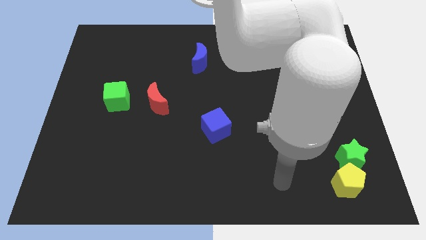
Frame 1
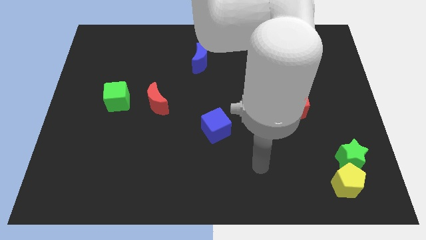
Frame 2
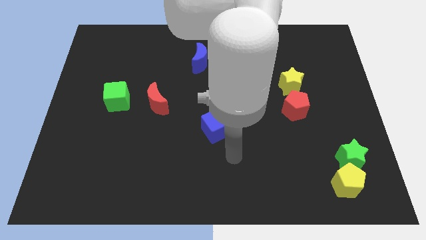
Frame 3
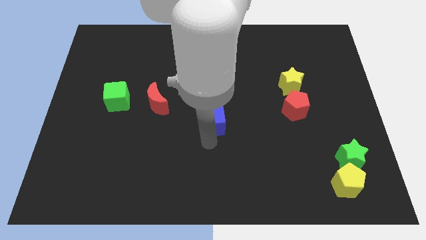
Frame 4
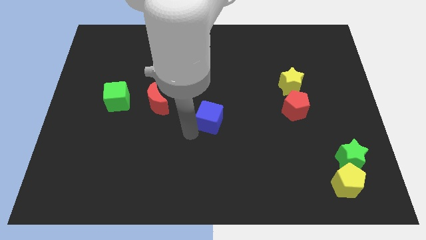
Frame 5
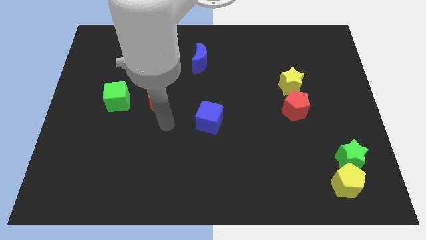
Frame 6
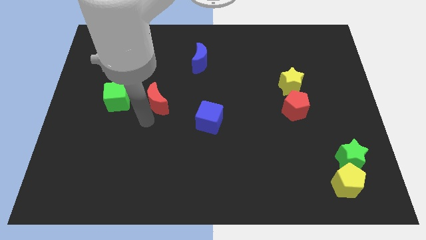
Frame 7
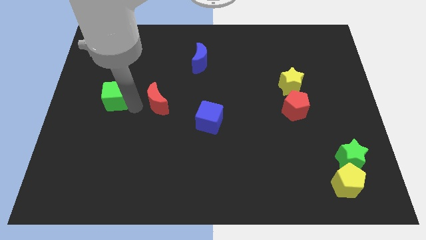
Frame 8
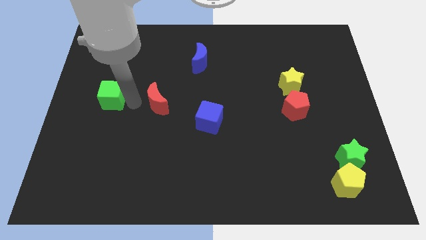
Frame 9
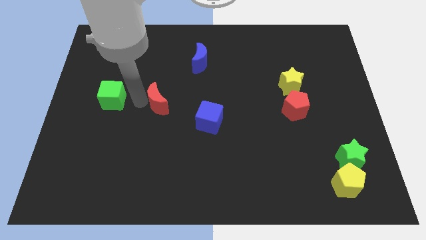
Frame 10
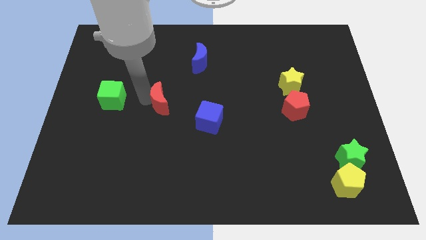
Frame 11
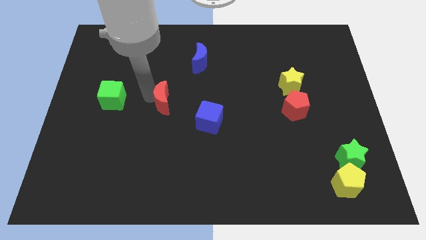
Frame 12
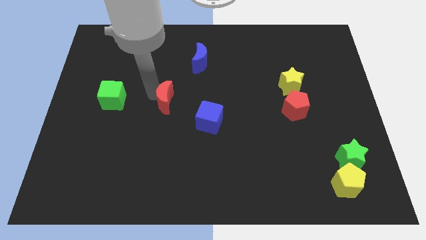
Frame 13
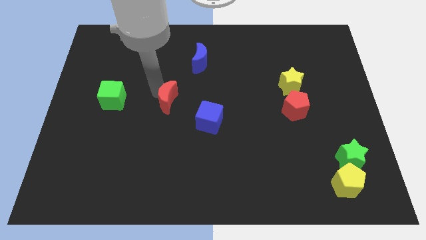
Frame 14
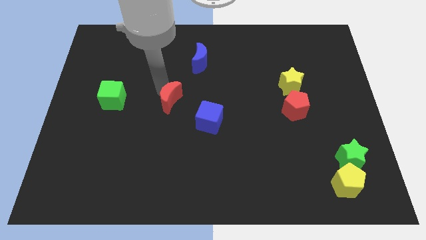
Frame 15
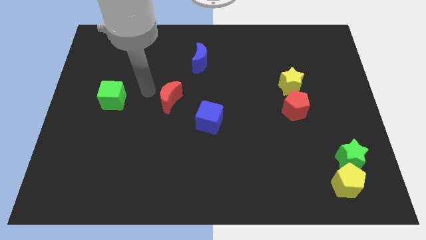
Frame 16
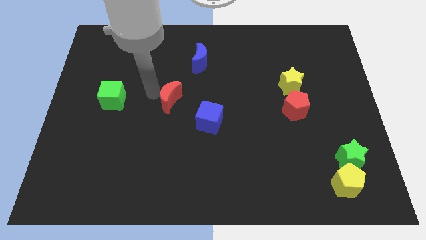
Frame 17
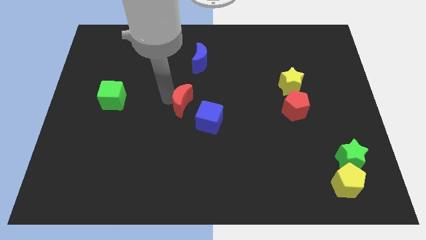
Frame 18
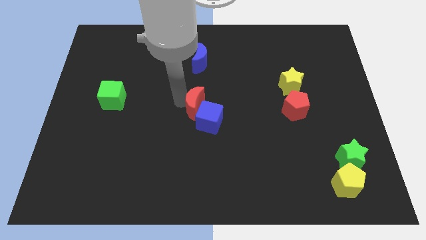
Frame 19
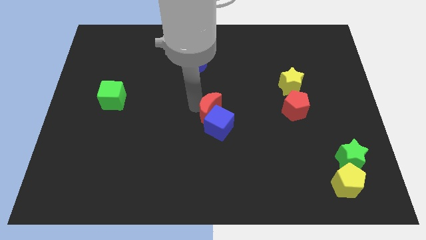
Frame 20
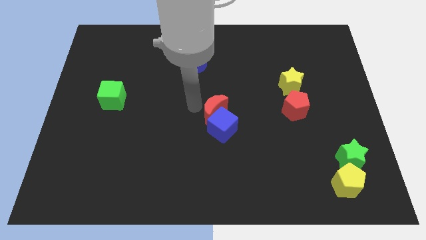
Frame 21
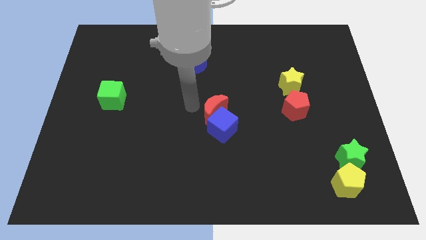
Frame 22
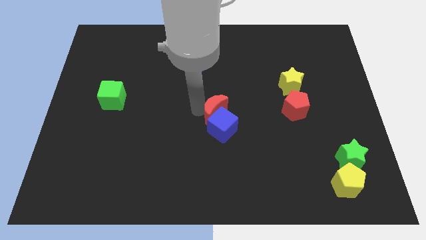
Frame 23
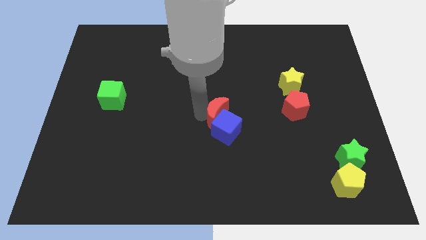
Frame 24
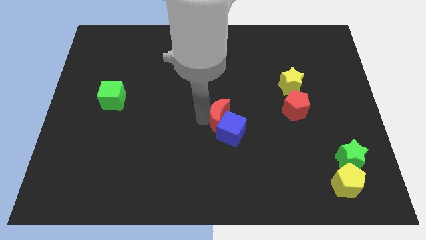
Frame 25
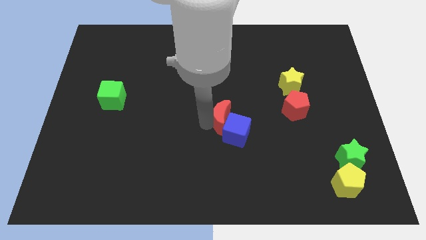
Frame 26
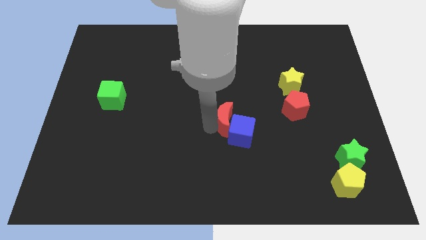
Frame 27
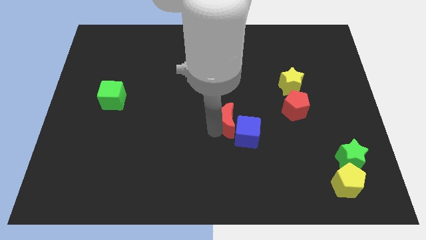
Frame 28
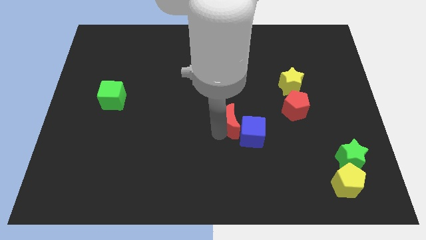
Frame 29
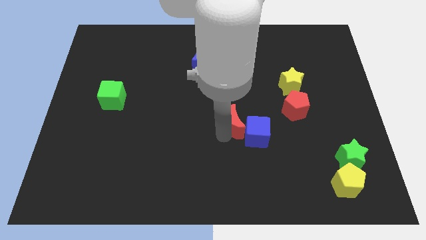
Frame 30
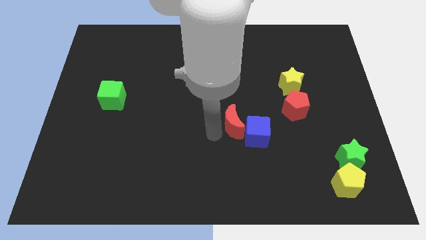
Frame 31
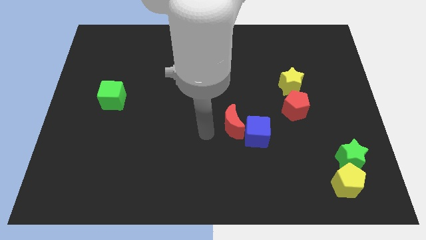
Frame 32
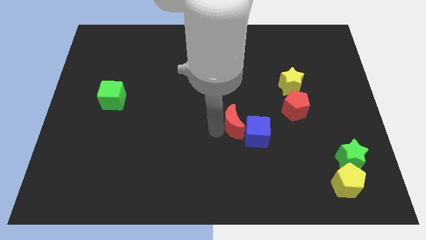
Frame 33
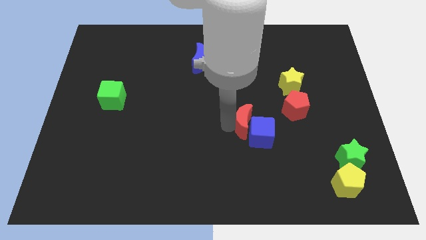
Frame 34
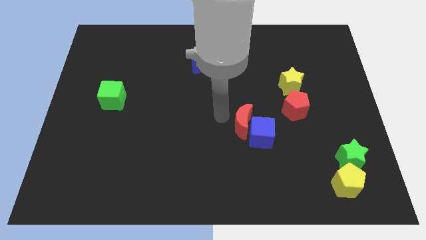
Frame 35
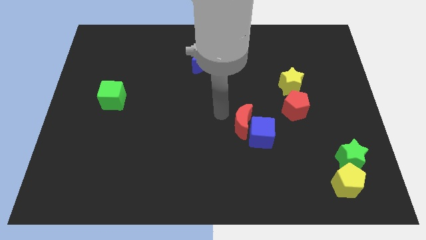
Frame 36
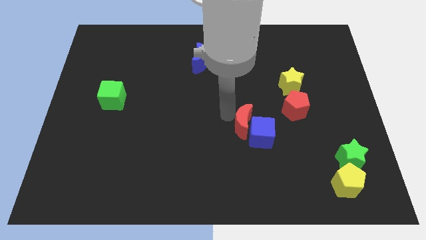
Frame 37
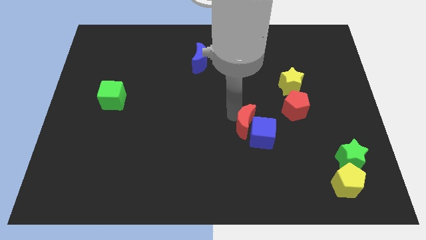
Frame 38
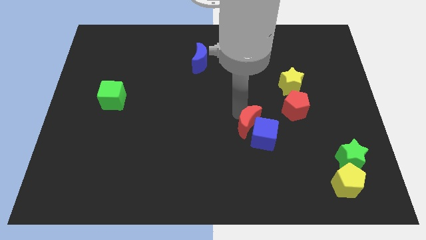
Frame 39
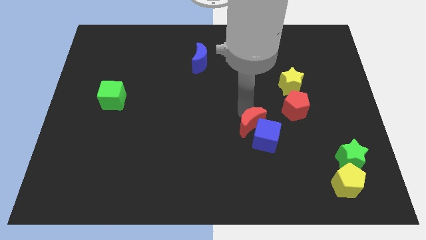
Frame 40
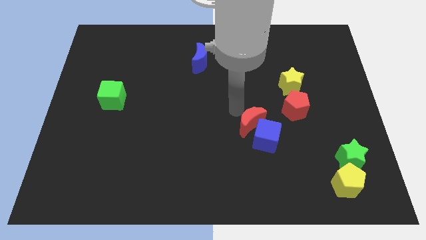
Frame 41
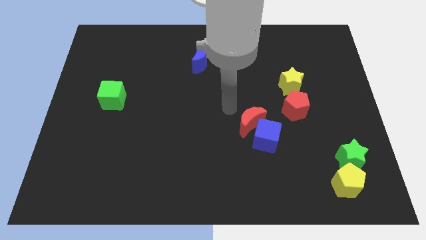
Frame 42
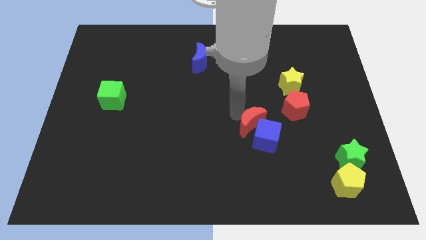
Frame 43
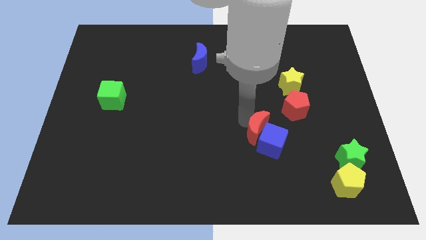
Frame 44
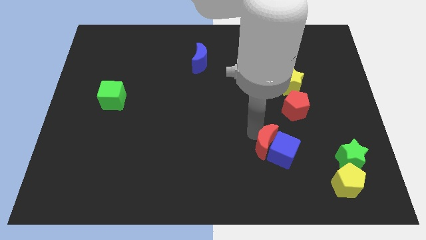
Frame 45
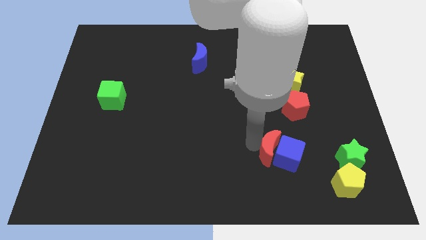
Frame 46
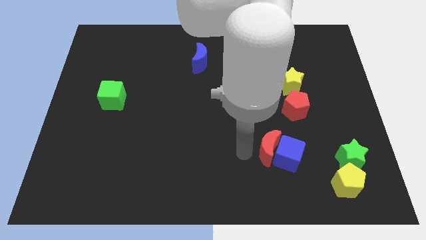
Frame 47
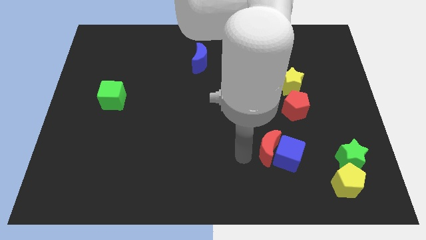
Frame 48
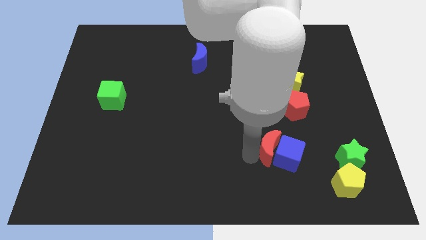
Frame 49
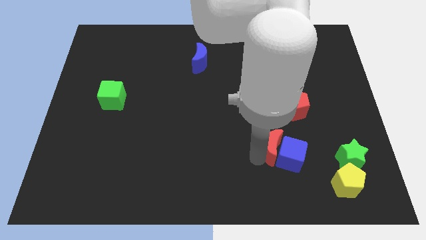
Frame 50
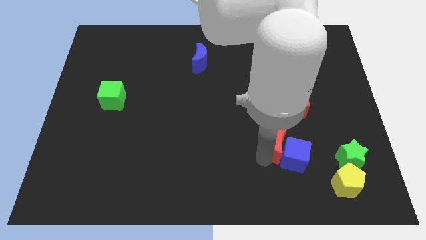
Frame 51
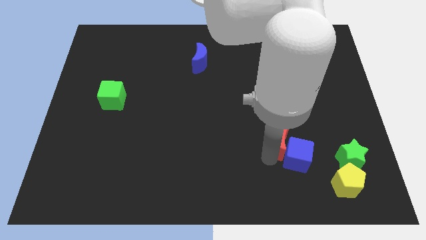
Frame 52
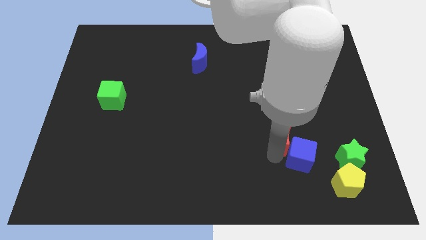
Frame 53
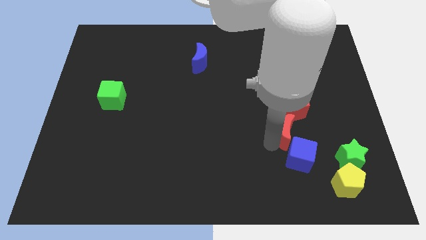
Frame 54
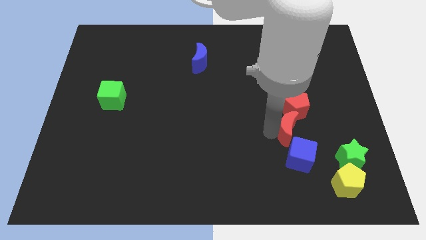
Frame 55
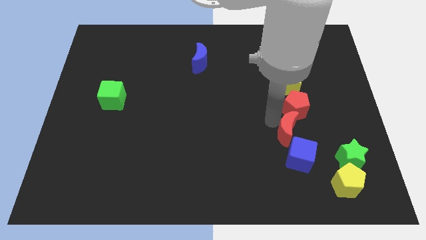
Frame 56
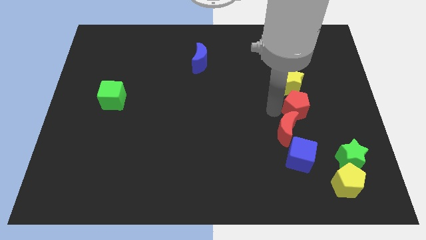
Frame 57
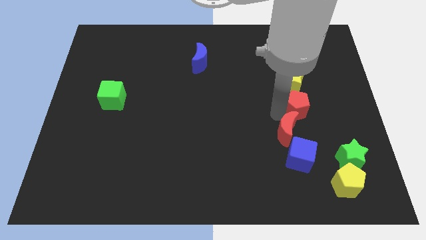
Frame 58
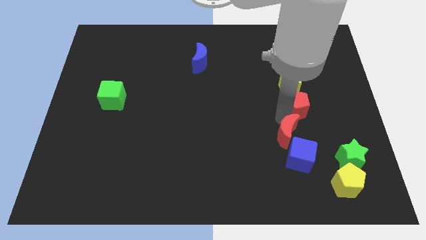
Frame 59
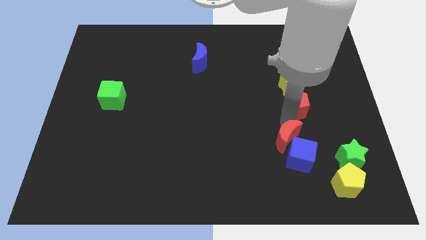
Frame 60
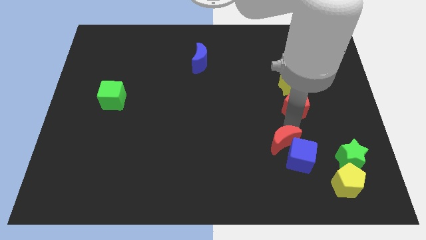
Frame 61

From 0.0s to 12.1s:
move the red moon left of the green star

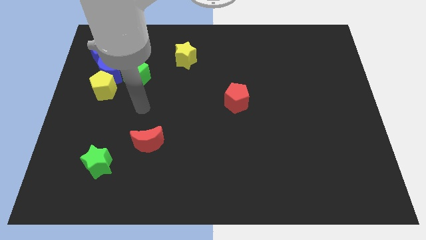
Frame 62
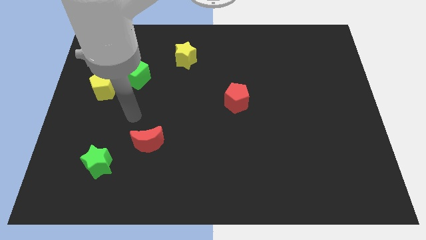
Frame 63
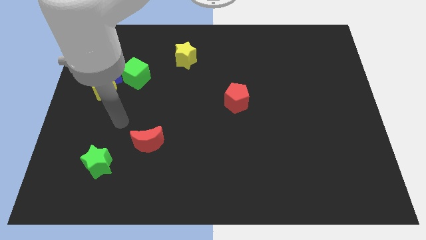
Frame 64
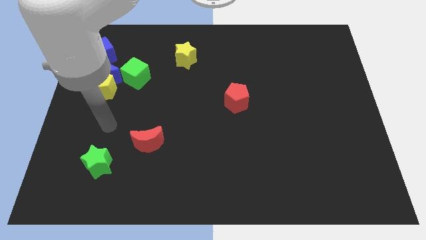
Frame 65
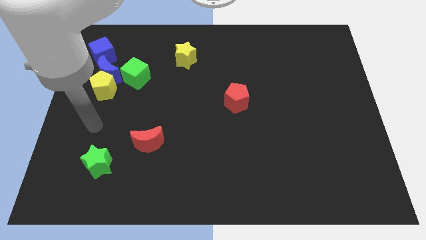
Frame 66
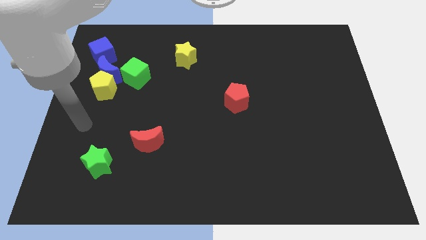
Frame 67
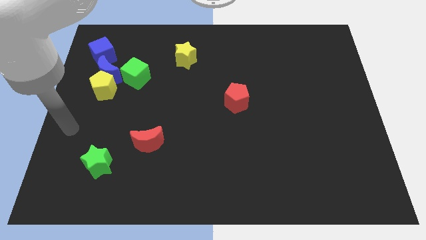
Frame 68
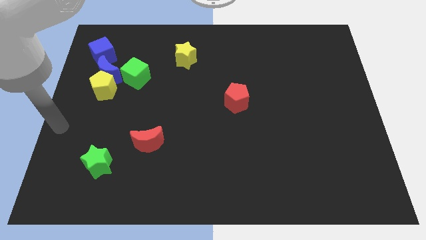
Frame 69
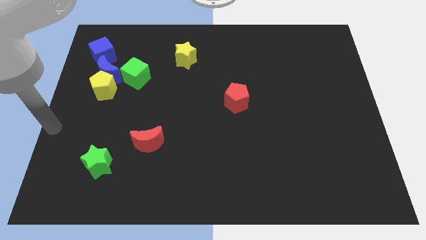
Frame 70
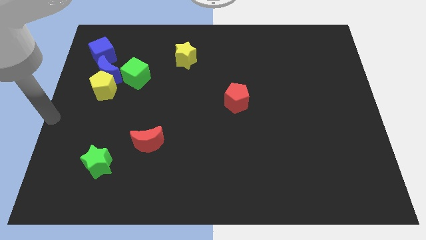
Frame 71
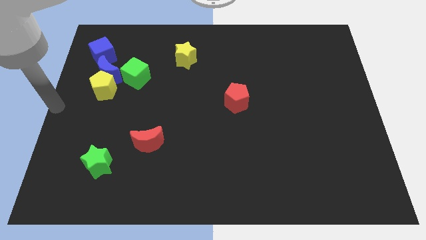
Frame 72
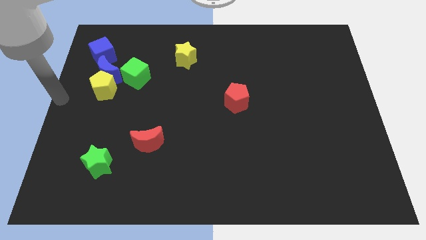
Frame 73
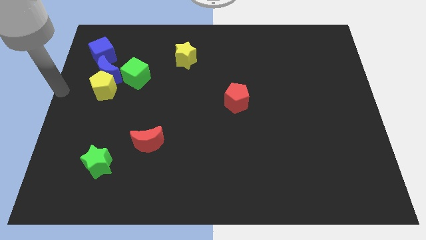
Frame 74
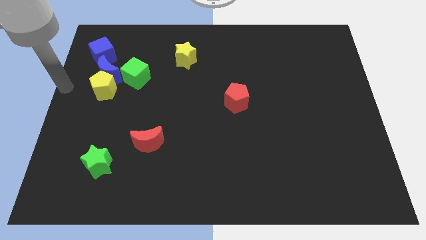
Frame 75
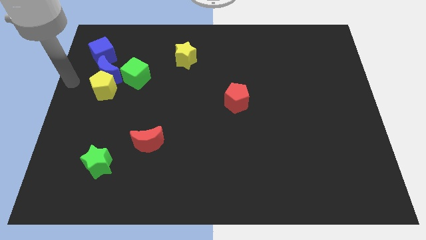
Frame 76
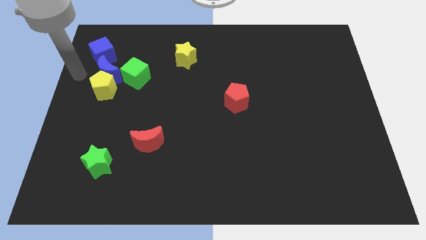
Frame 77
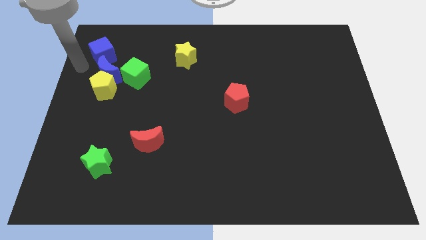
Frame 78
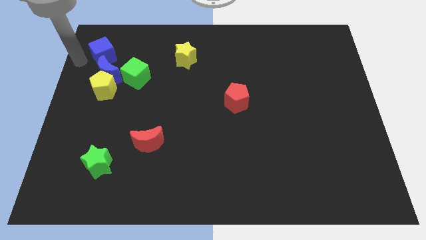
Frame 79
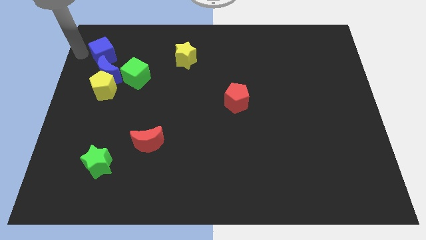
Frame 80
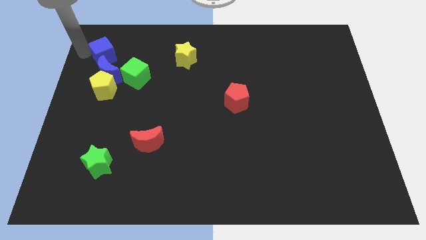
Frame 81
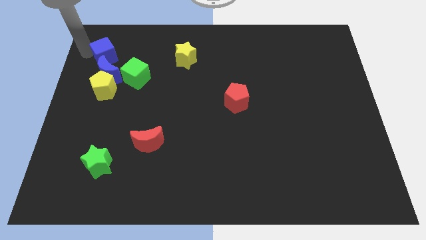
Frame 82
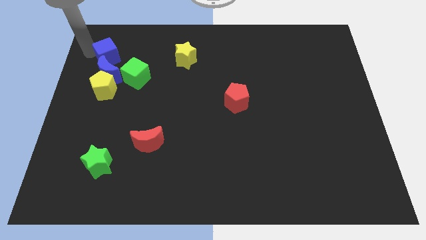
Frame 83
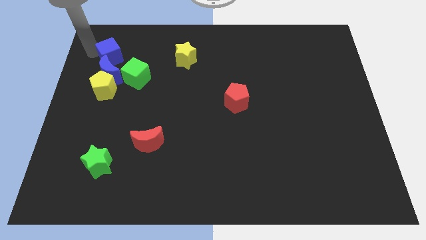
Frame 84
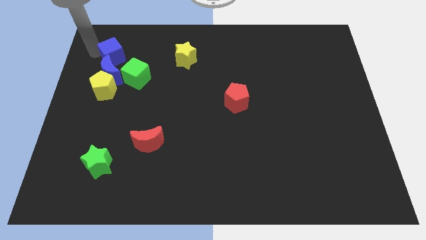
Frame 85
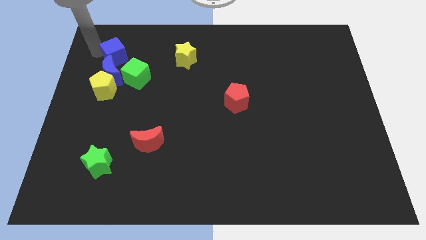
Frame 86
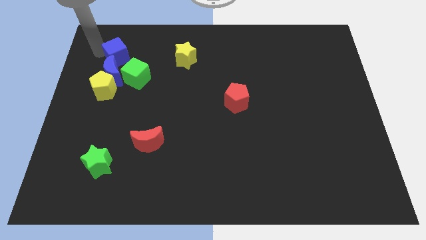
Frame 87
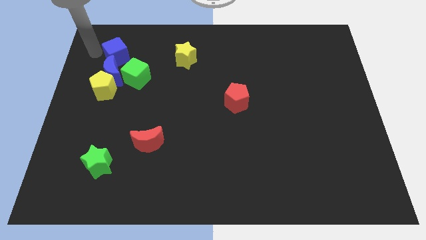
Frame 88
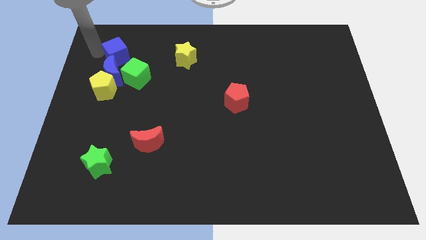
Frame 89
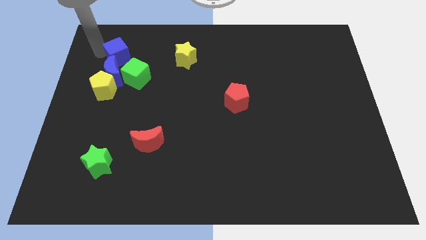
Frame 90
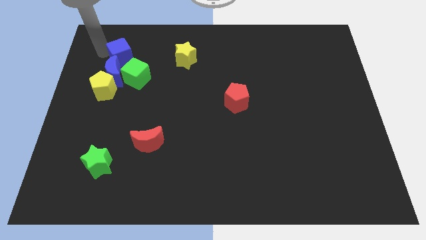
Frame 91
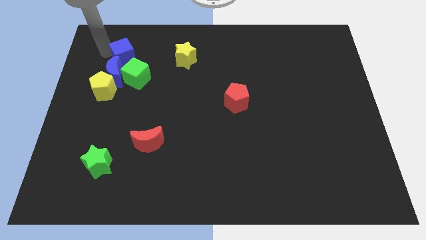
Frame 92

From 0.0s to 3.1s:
move the blue cube to the left of the yellow star
